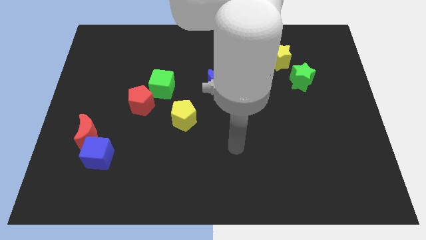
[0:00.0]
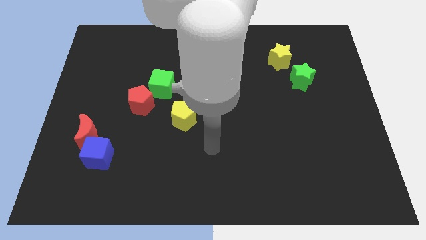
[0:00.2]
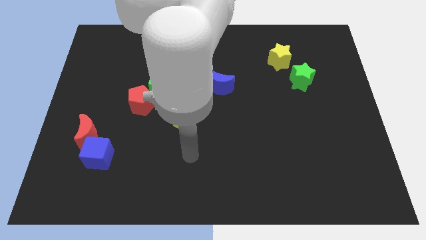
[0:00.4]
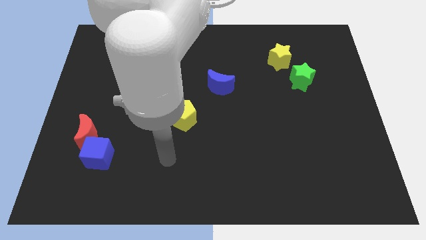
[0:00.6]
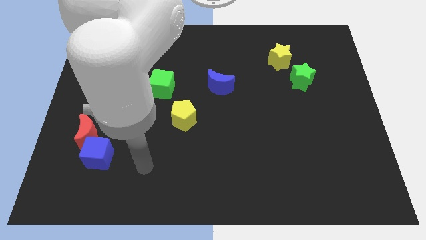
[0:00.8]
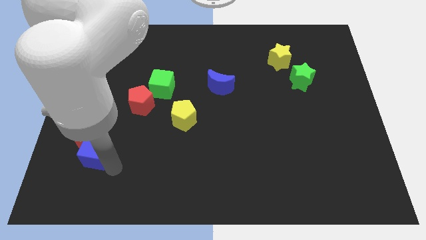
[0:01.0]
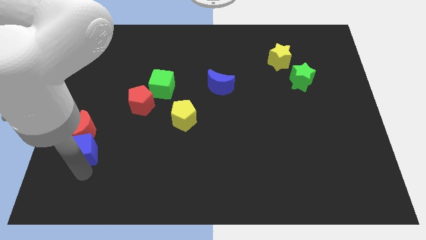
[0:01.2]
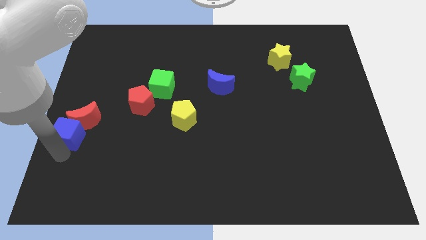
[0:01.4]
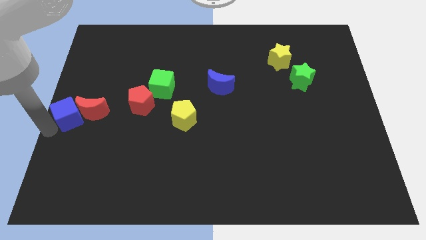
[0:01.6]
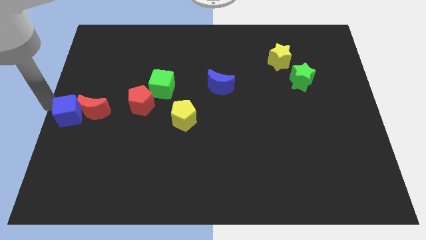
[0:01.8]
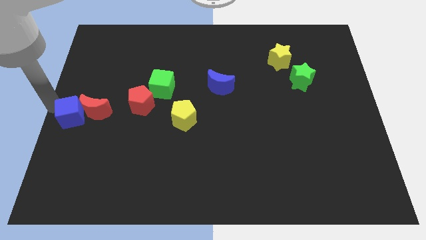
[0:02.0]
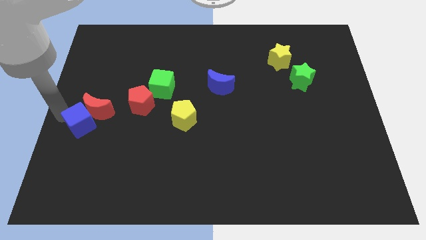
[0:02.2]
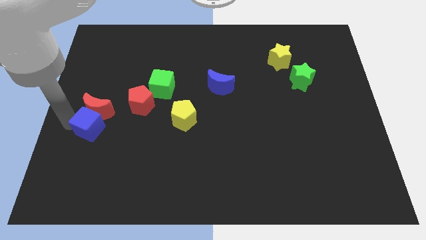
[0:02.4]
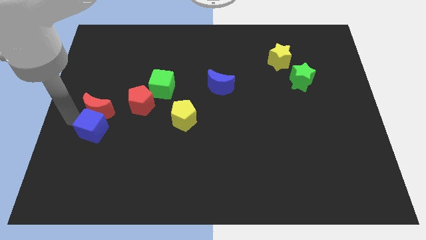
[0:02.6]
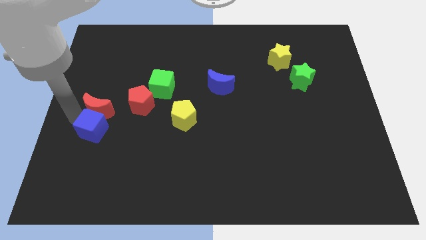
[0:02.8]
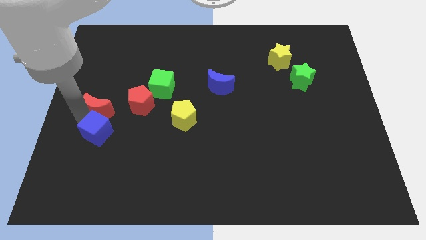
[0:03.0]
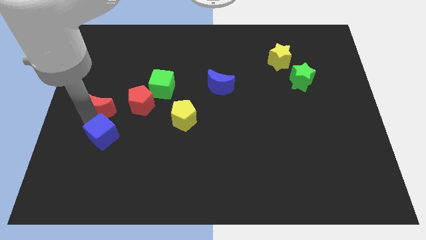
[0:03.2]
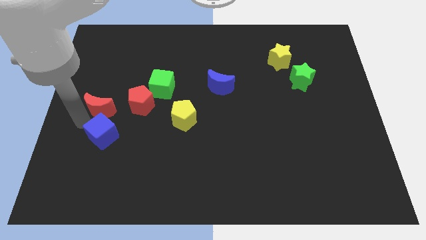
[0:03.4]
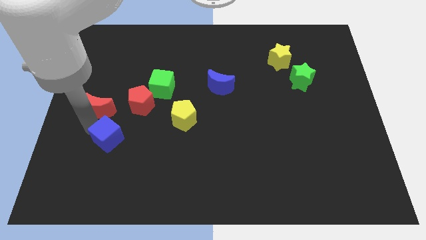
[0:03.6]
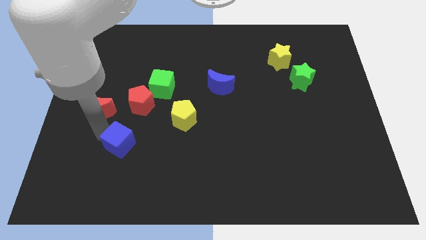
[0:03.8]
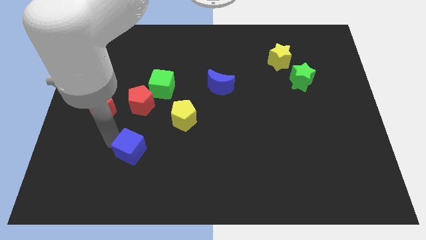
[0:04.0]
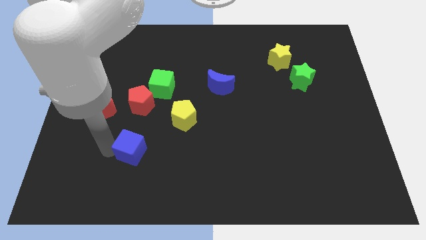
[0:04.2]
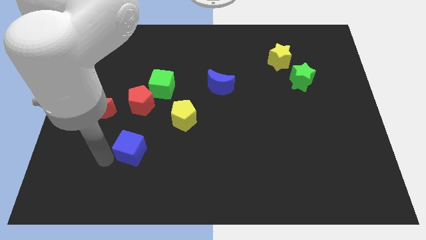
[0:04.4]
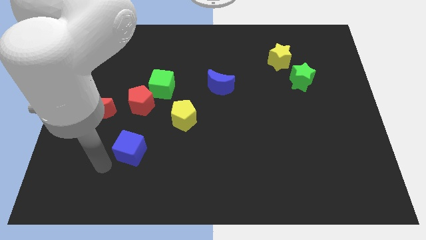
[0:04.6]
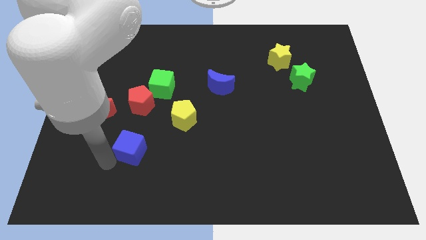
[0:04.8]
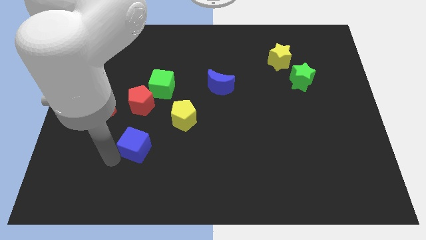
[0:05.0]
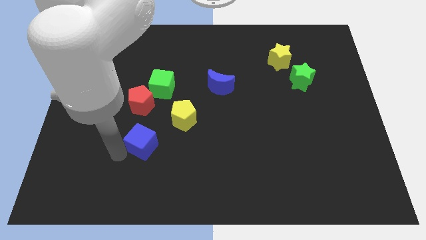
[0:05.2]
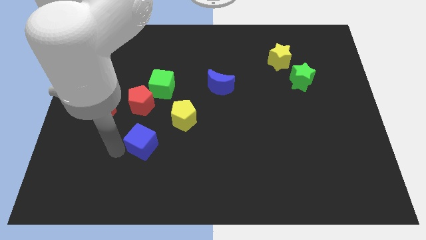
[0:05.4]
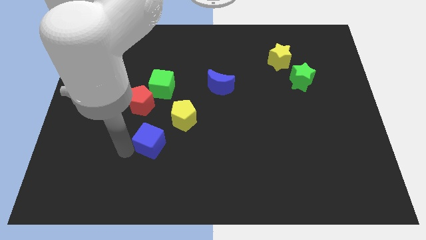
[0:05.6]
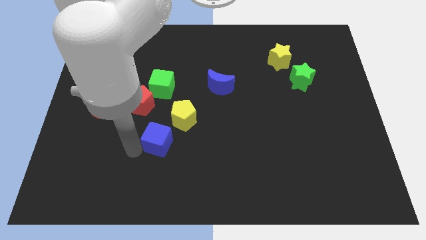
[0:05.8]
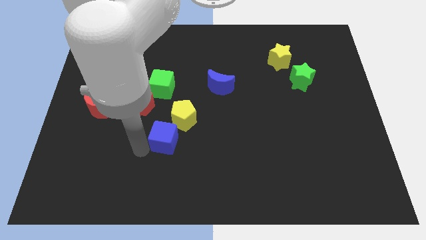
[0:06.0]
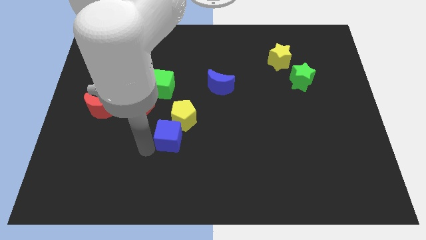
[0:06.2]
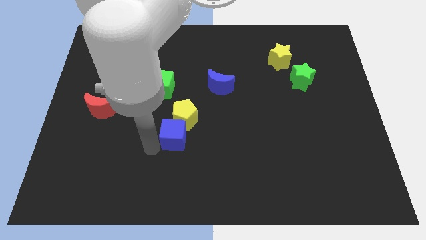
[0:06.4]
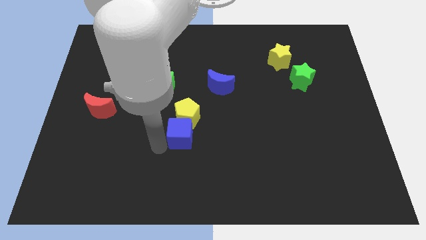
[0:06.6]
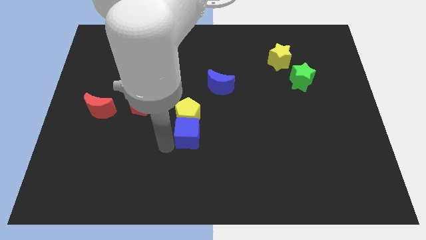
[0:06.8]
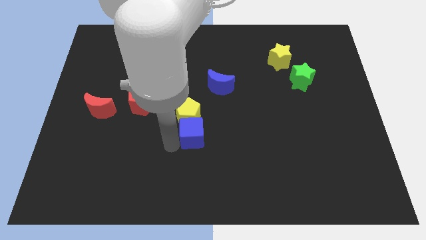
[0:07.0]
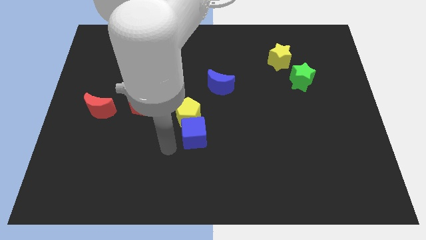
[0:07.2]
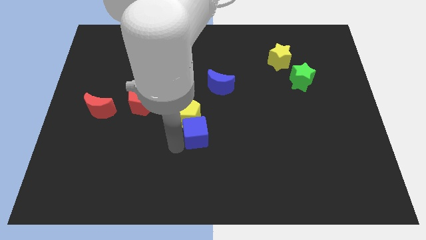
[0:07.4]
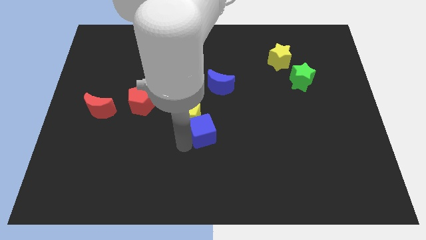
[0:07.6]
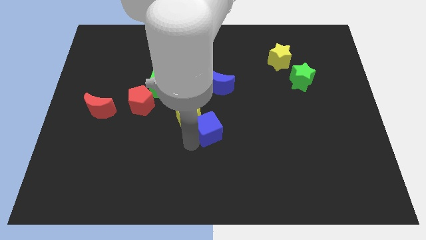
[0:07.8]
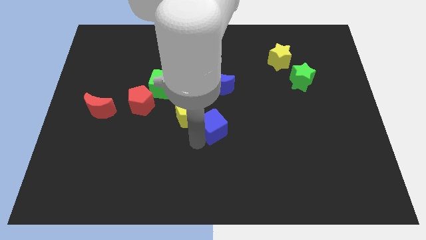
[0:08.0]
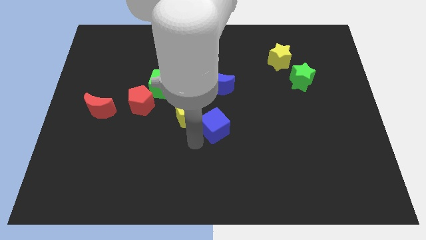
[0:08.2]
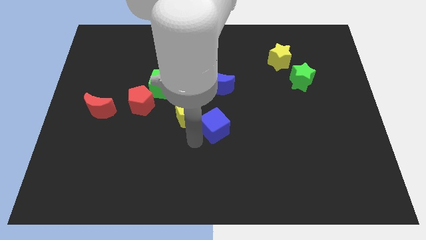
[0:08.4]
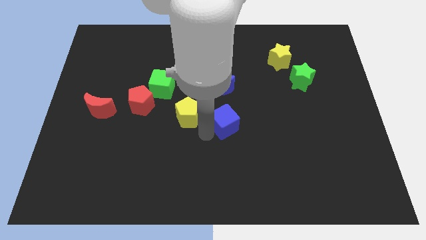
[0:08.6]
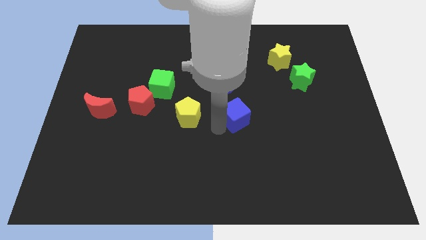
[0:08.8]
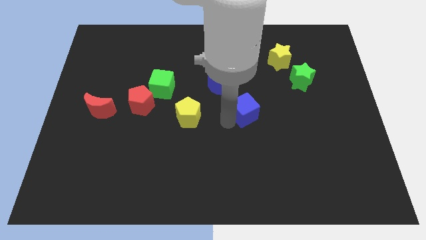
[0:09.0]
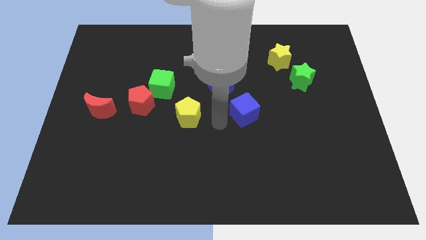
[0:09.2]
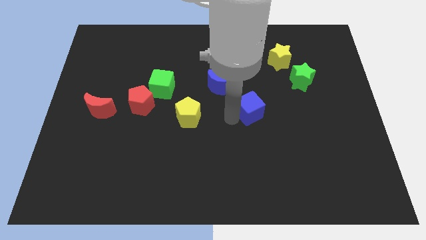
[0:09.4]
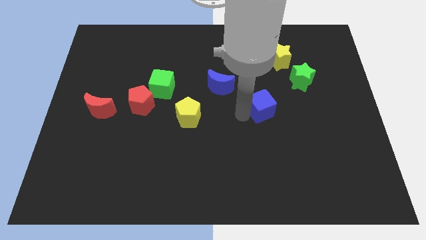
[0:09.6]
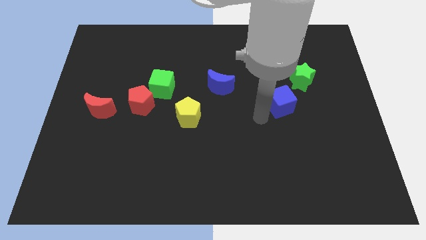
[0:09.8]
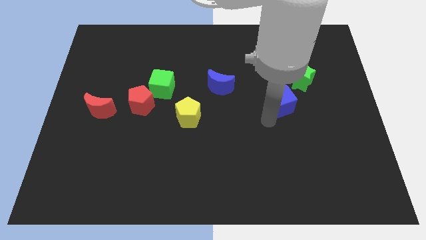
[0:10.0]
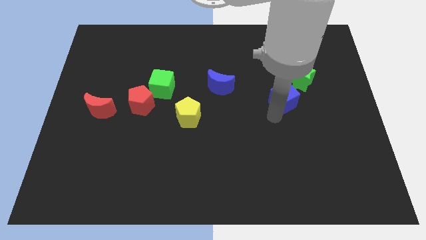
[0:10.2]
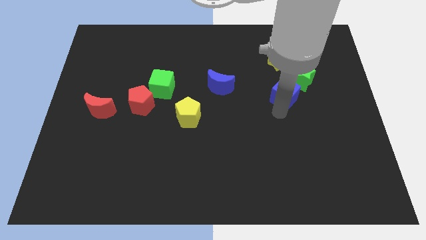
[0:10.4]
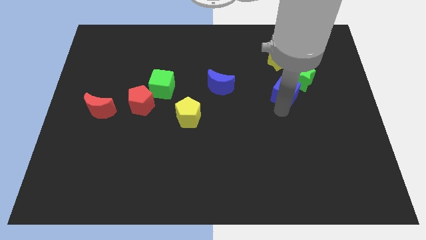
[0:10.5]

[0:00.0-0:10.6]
push the blue cube next to the green star

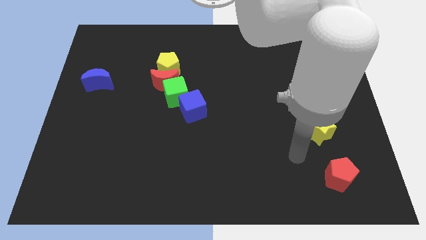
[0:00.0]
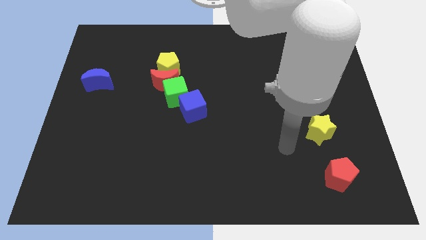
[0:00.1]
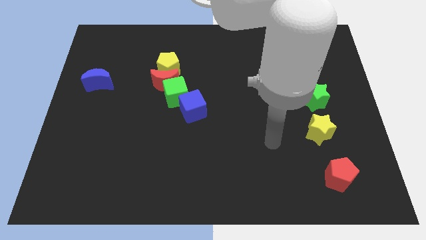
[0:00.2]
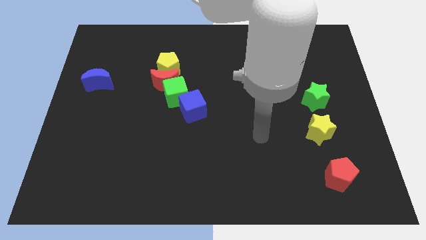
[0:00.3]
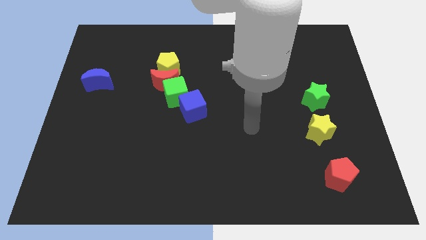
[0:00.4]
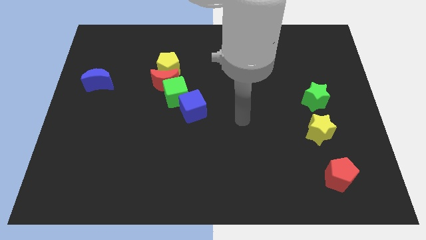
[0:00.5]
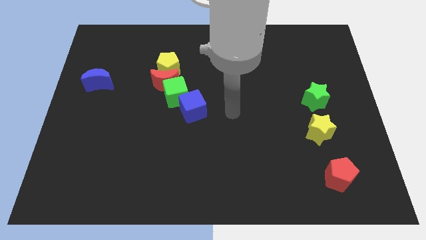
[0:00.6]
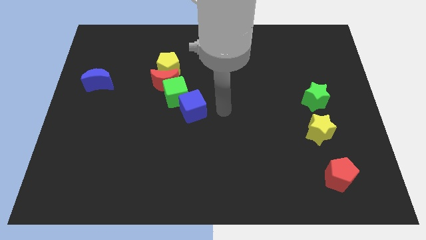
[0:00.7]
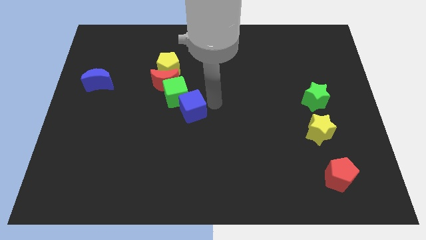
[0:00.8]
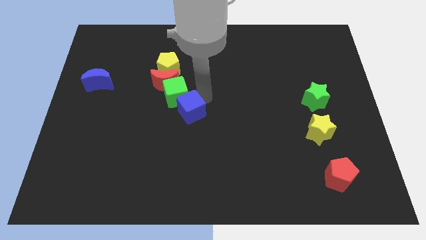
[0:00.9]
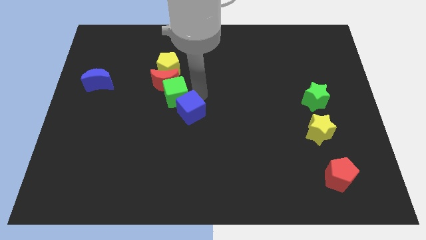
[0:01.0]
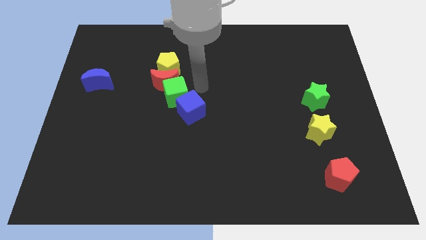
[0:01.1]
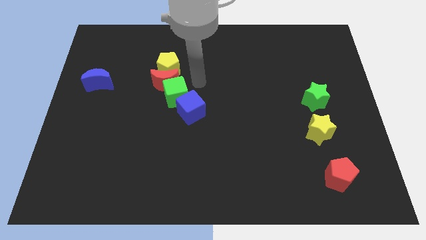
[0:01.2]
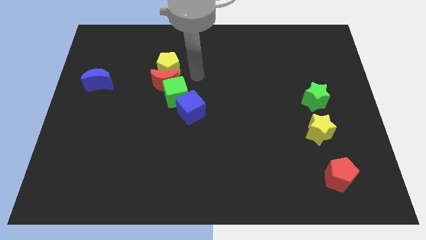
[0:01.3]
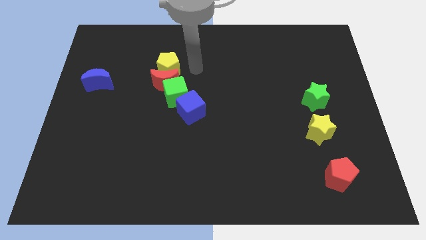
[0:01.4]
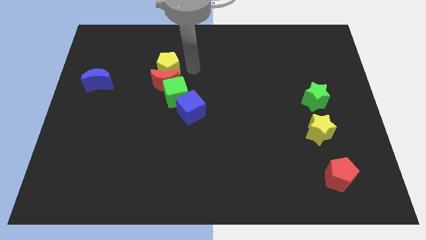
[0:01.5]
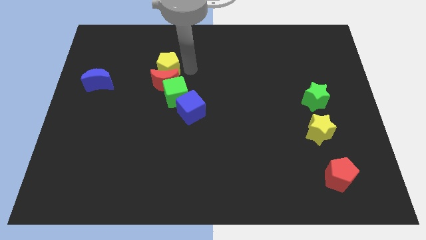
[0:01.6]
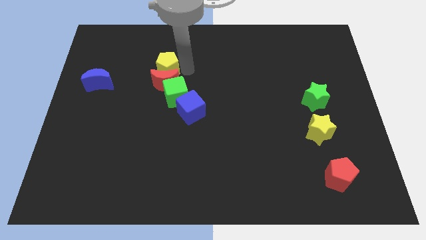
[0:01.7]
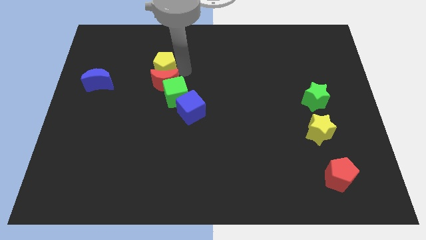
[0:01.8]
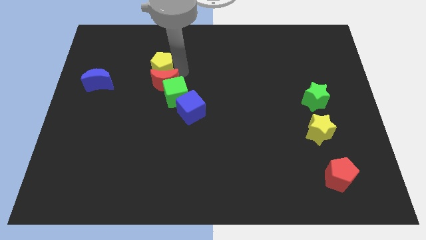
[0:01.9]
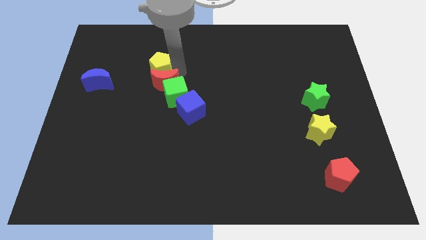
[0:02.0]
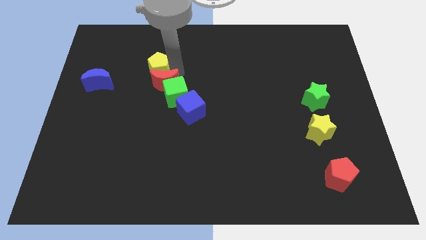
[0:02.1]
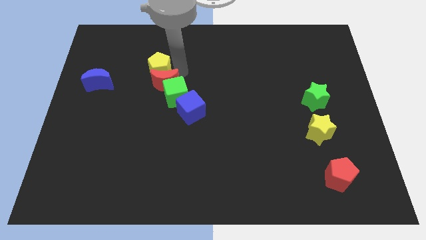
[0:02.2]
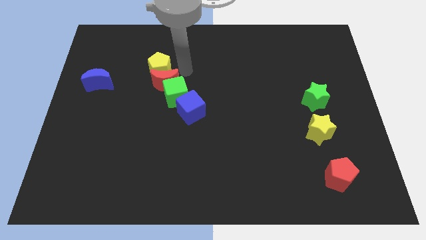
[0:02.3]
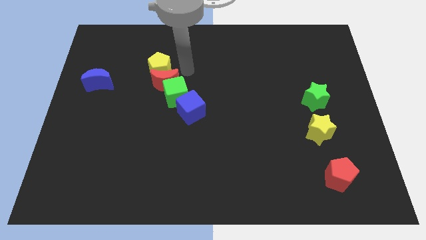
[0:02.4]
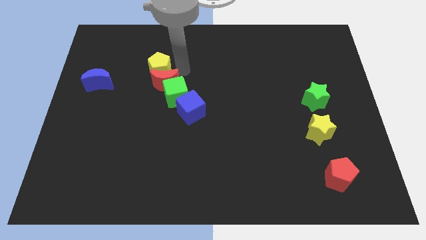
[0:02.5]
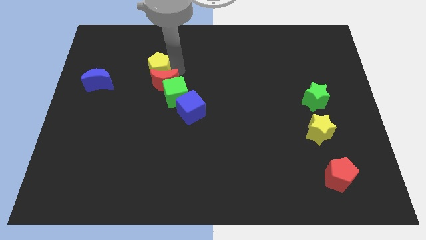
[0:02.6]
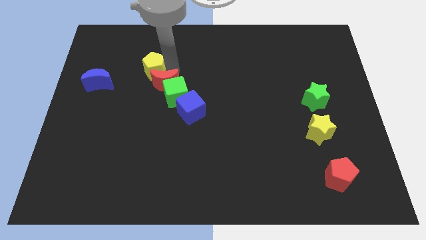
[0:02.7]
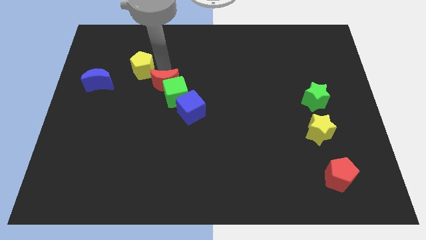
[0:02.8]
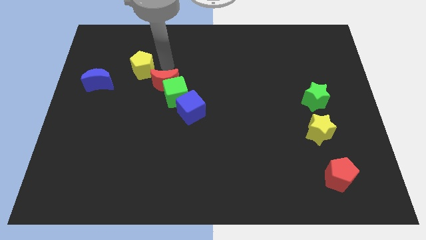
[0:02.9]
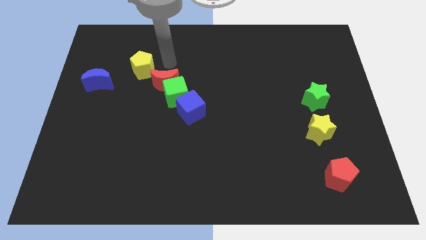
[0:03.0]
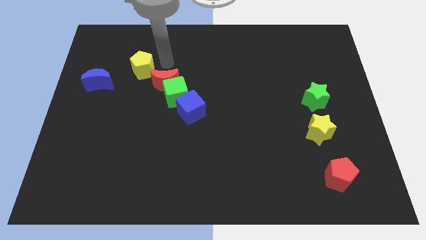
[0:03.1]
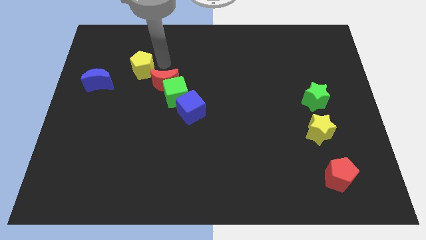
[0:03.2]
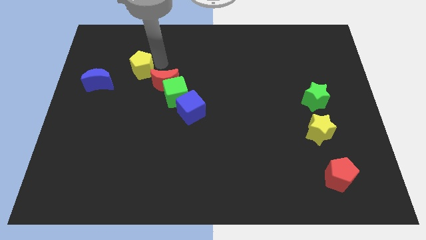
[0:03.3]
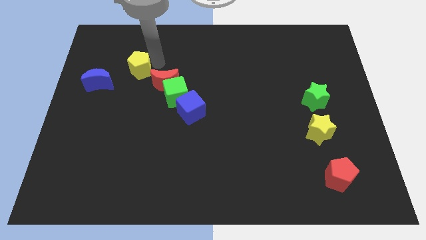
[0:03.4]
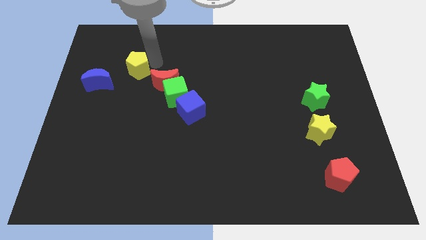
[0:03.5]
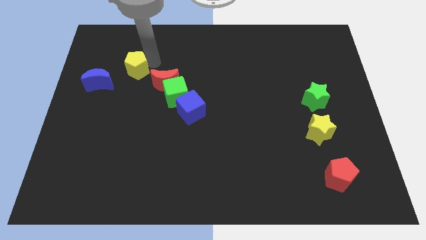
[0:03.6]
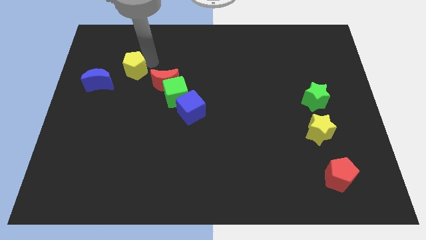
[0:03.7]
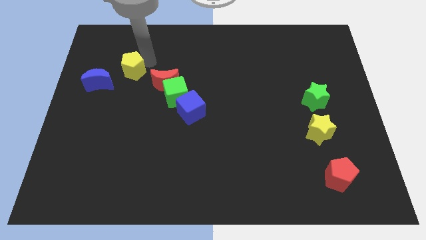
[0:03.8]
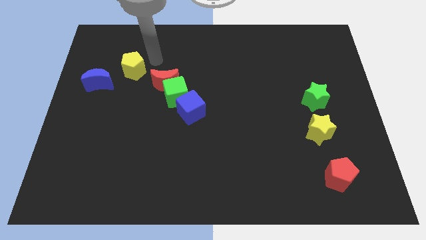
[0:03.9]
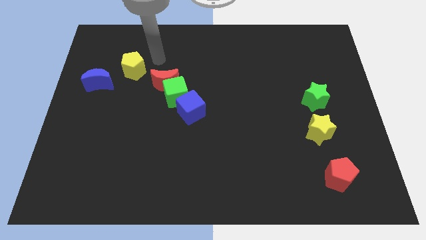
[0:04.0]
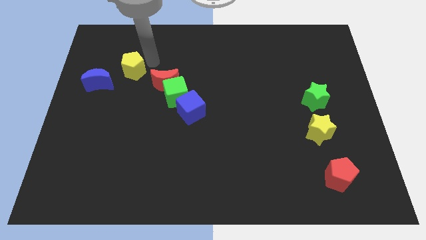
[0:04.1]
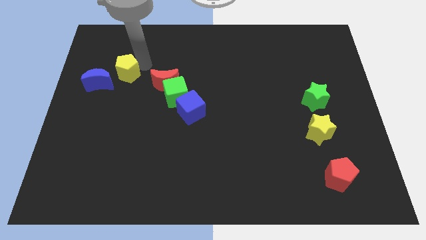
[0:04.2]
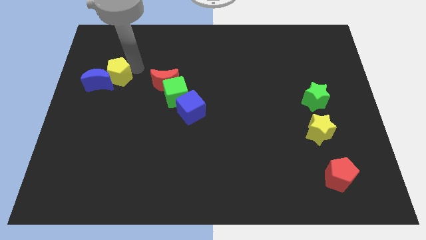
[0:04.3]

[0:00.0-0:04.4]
move the yellow pentagon to the blue moon
